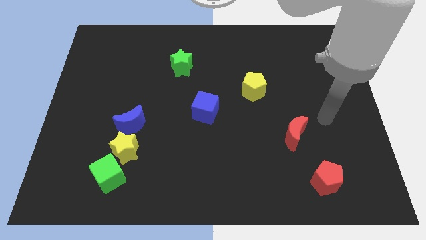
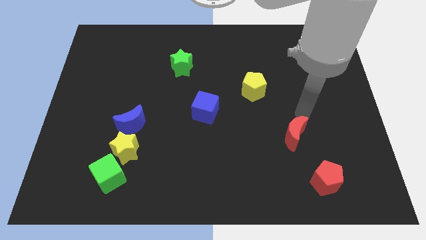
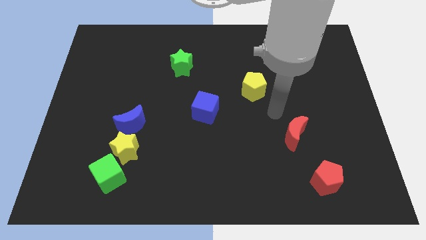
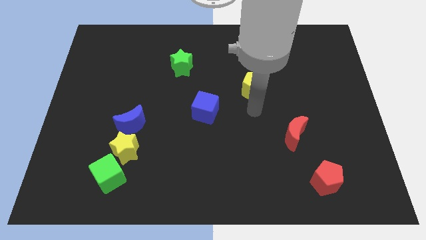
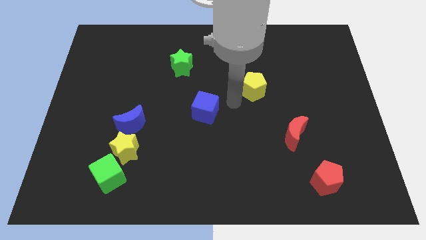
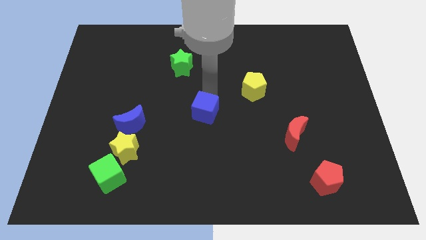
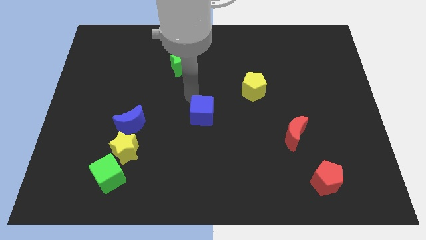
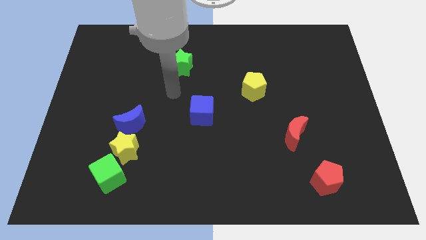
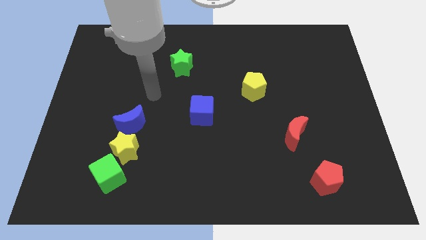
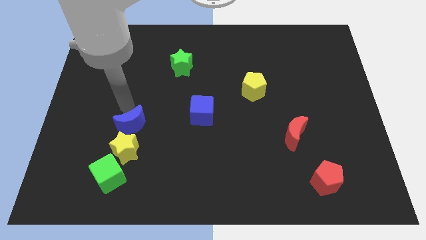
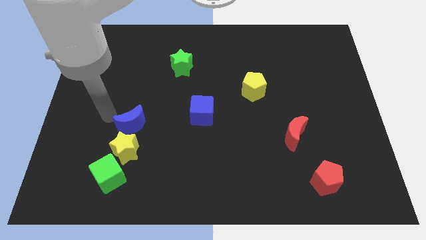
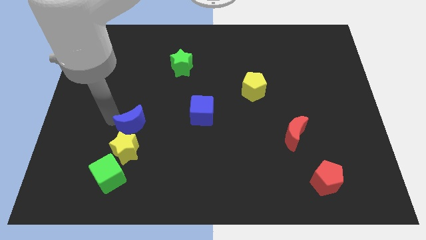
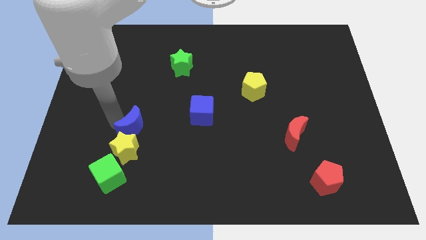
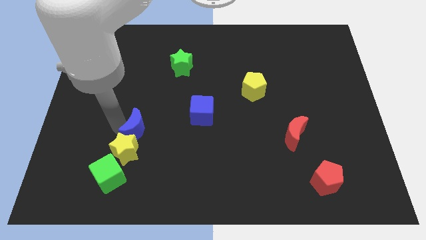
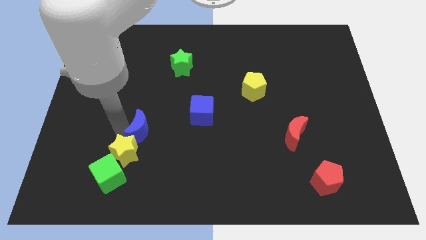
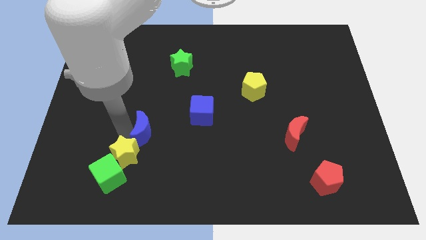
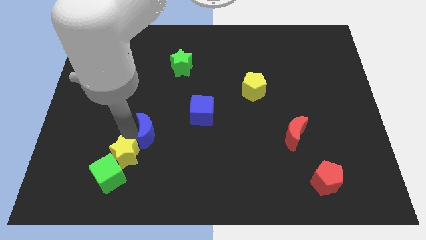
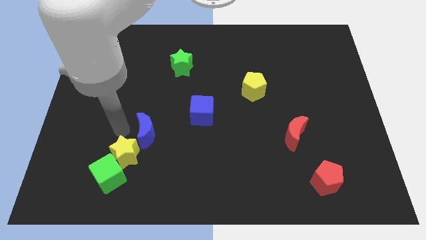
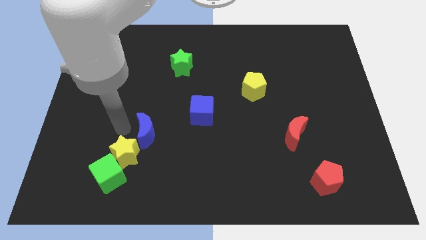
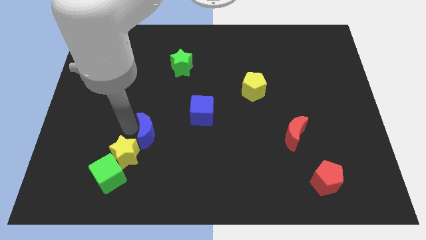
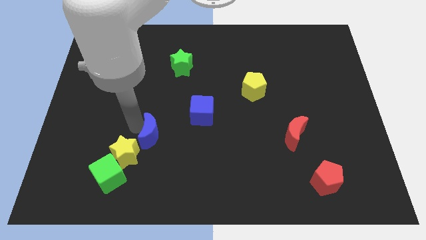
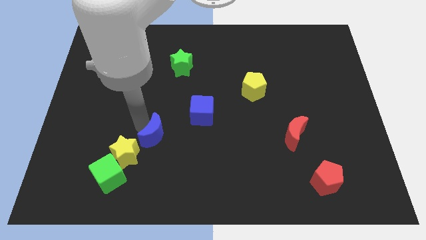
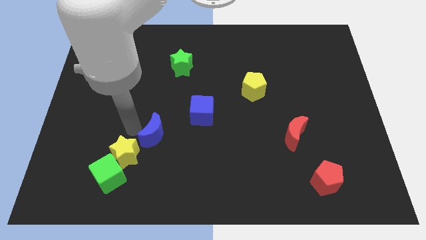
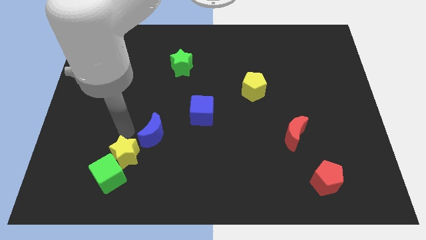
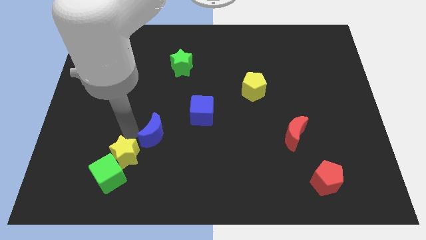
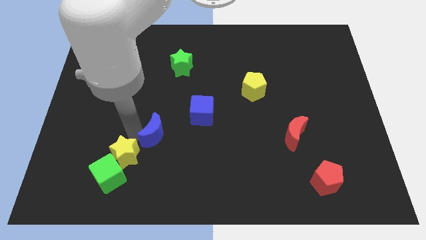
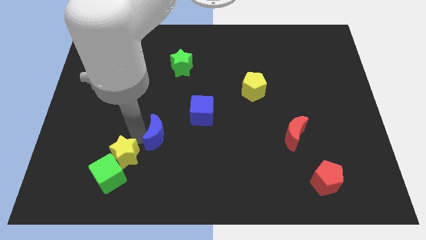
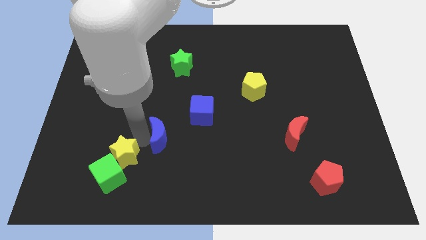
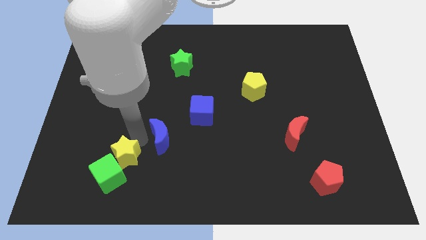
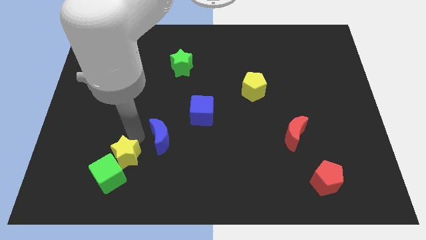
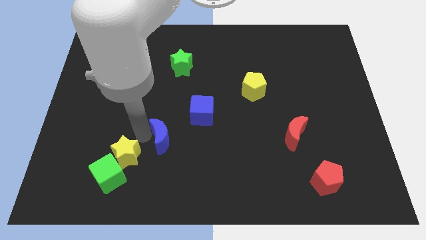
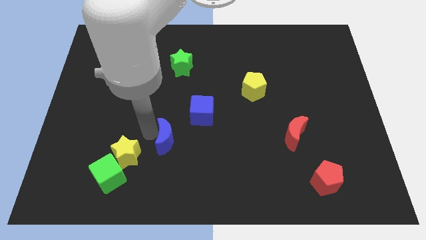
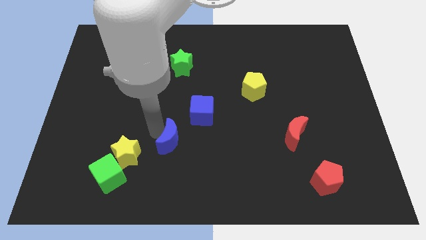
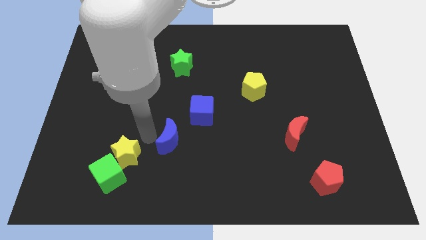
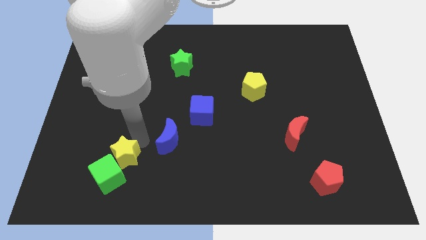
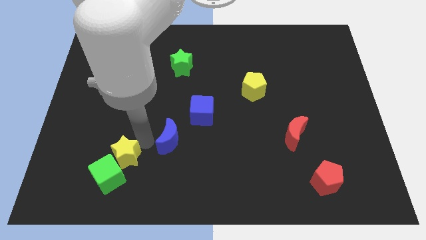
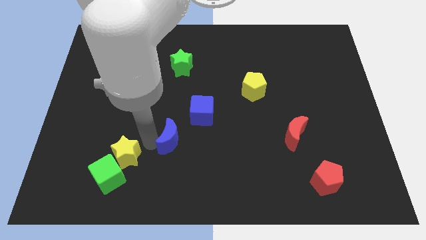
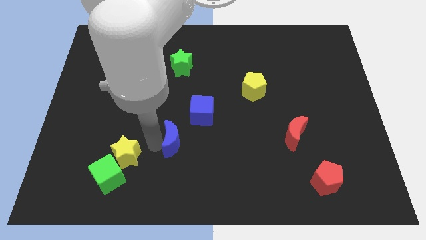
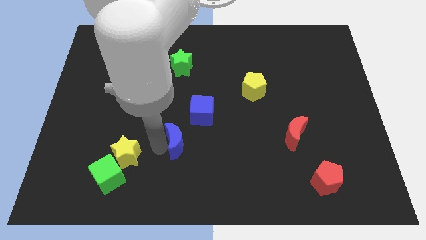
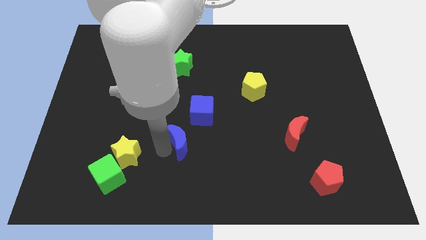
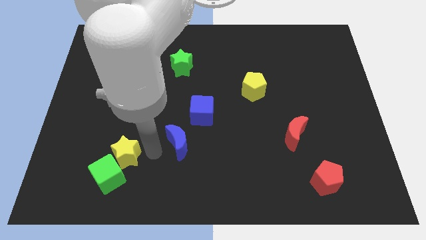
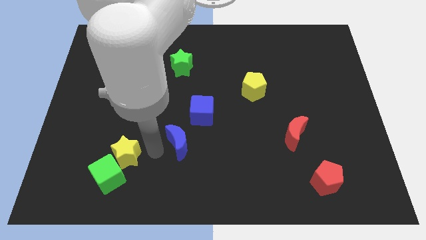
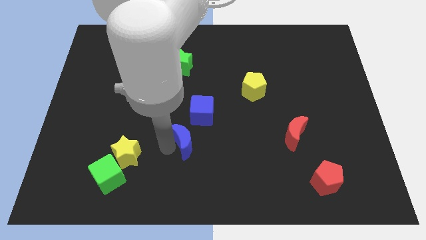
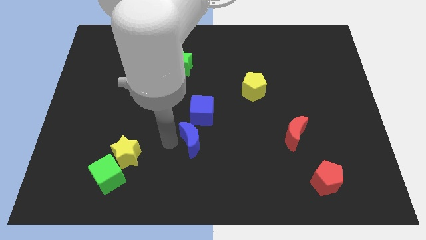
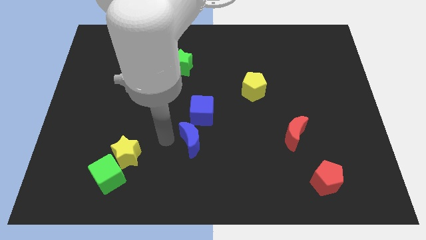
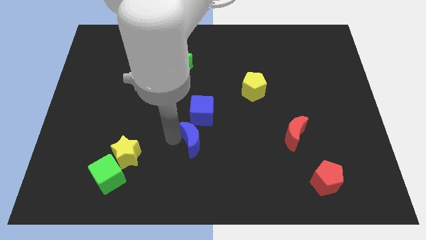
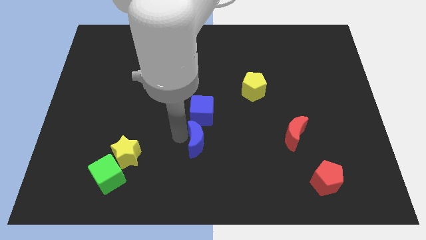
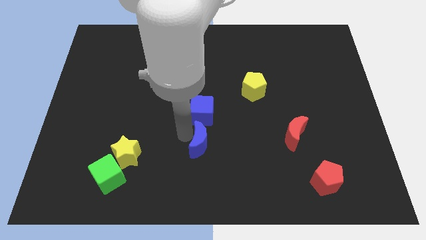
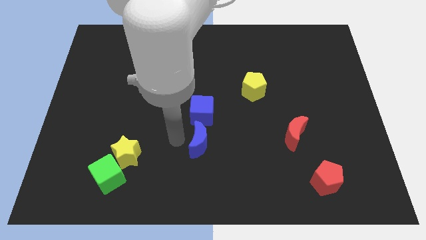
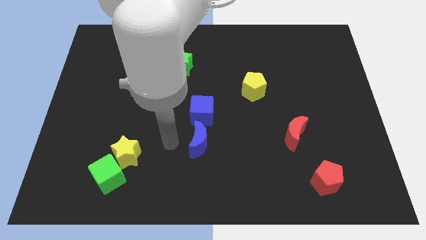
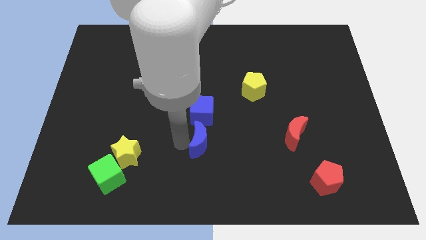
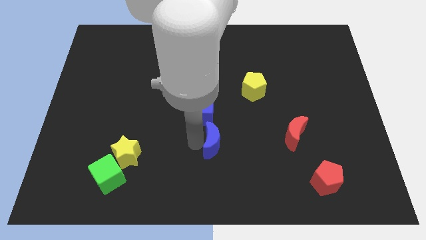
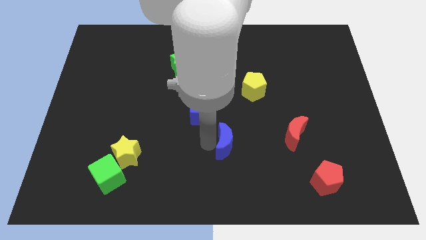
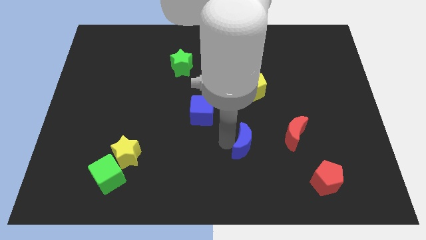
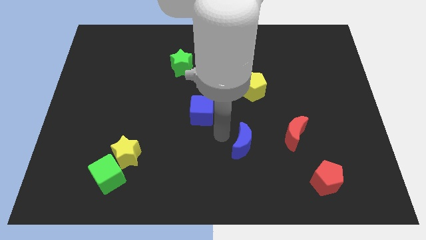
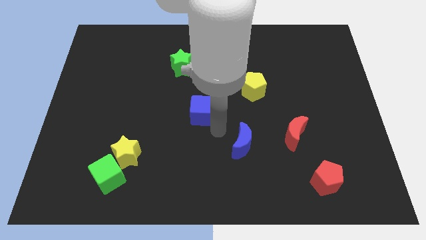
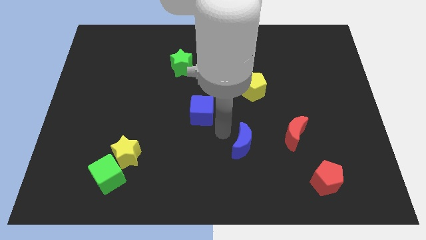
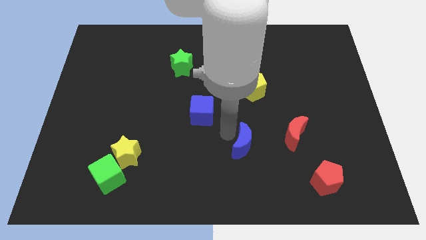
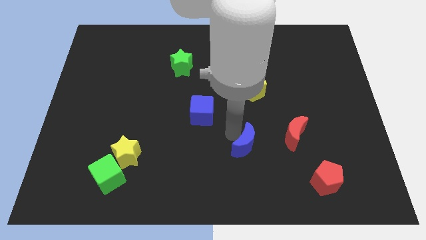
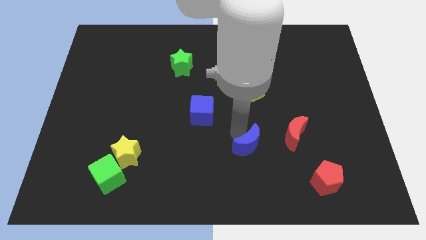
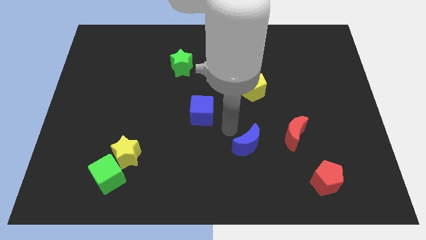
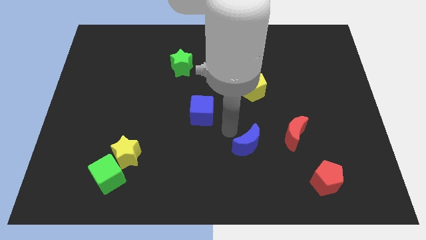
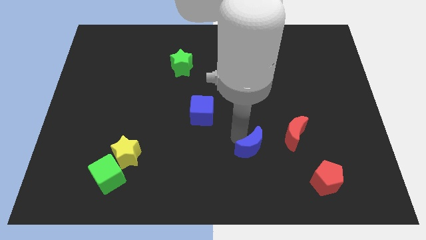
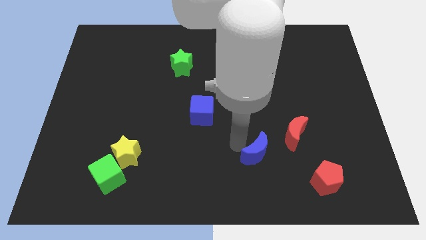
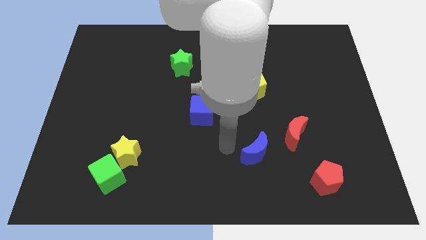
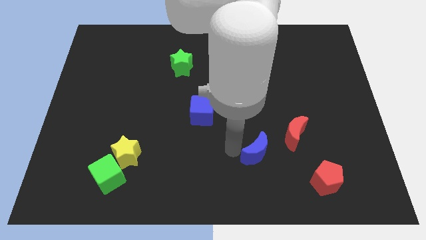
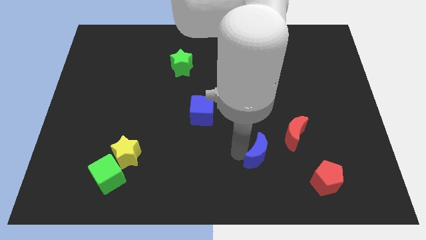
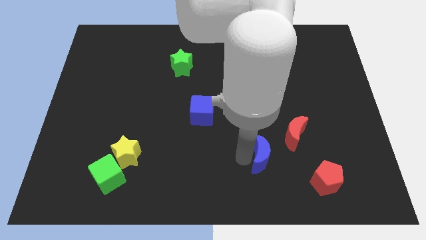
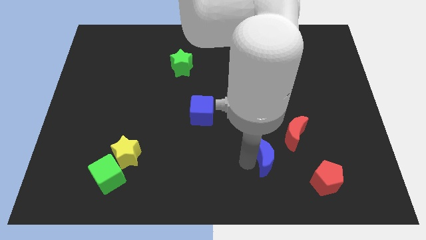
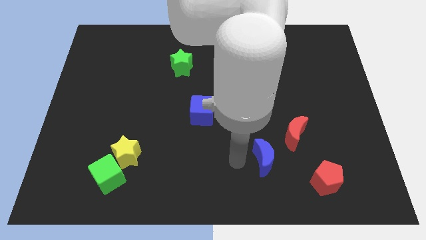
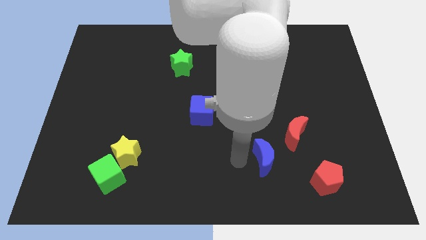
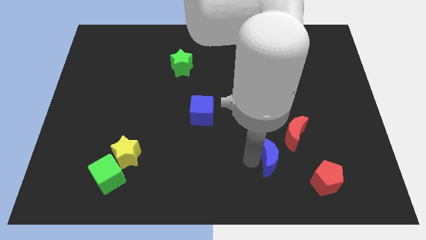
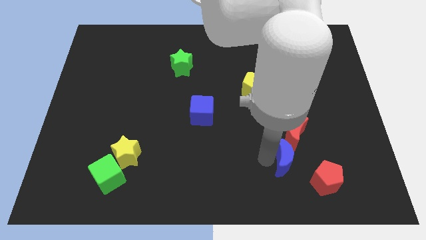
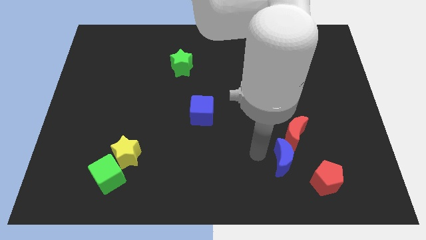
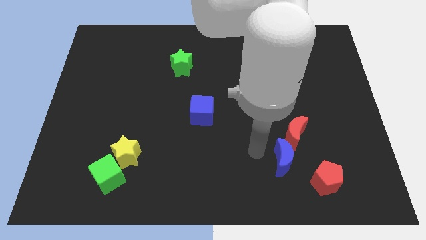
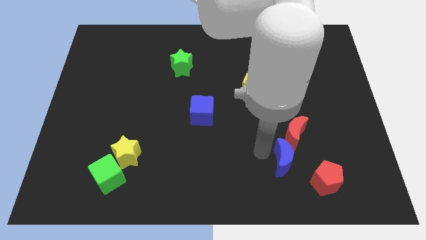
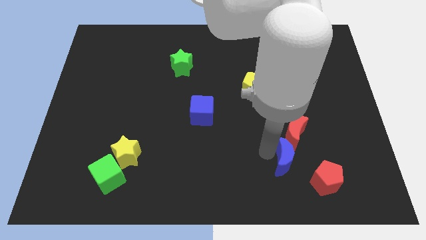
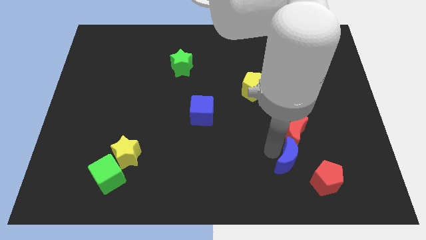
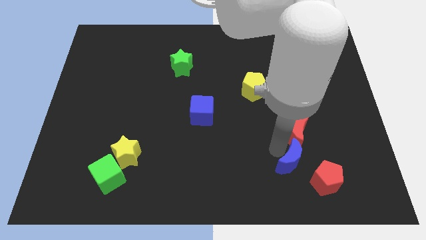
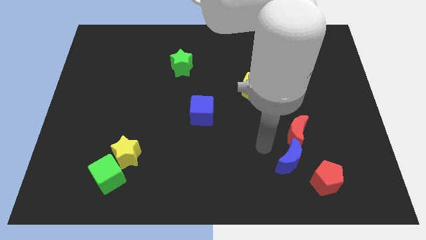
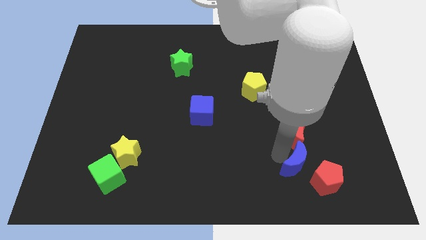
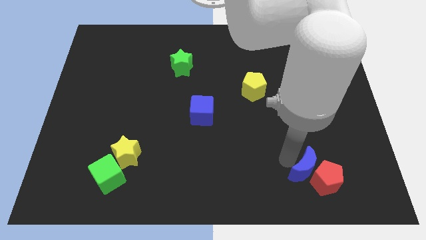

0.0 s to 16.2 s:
put the blue moon close to the red pentagon
